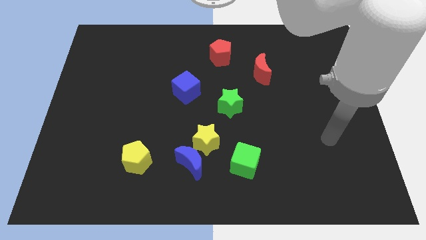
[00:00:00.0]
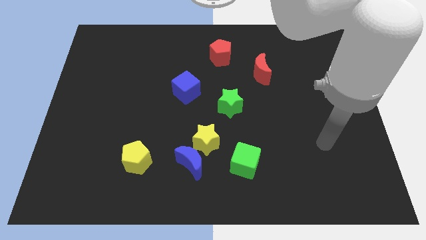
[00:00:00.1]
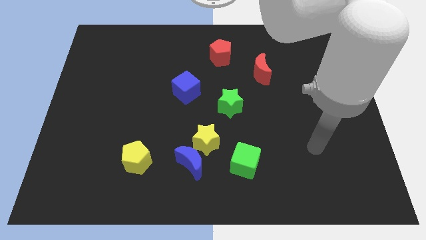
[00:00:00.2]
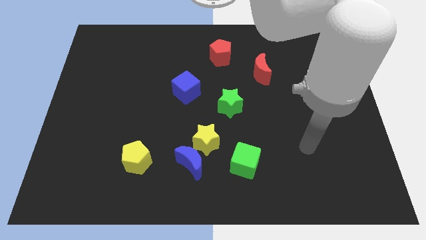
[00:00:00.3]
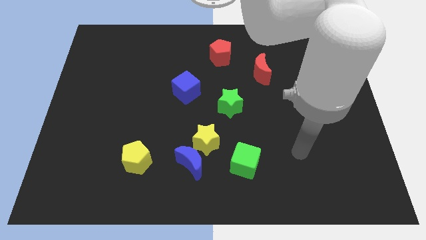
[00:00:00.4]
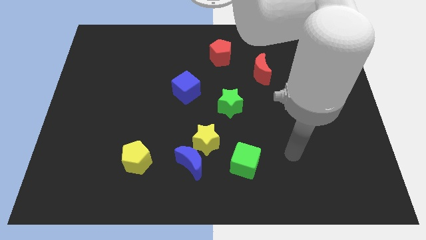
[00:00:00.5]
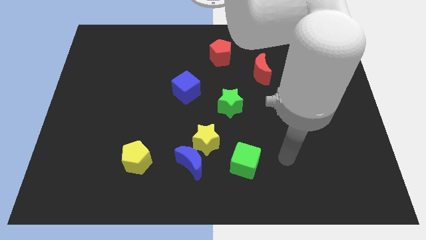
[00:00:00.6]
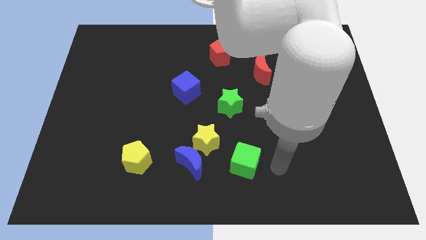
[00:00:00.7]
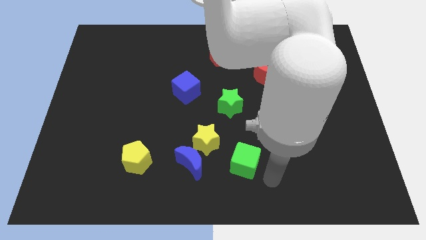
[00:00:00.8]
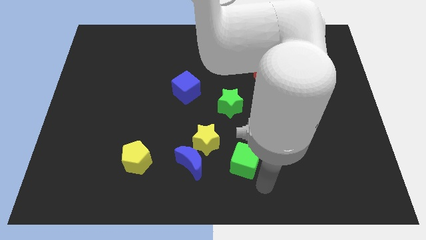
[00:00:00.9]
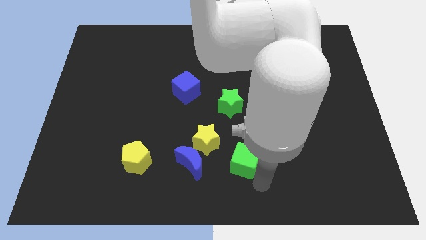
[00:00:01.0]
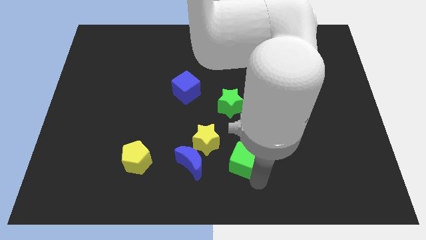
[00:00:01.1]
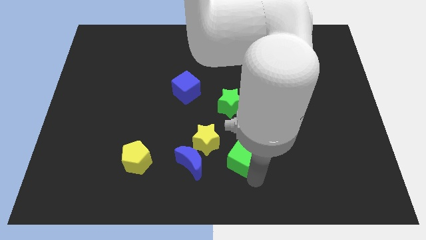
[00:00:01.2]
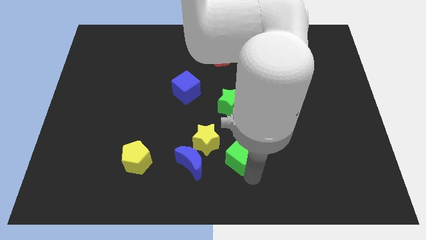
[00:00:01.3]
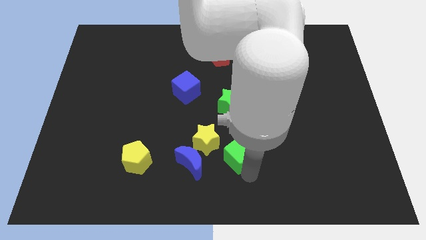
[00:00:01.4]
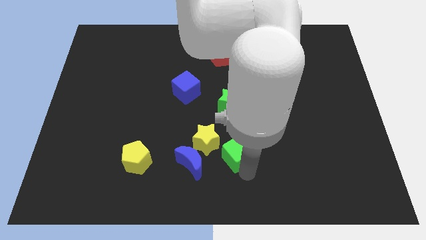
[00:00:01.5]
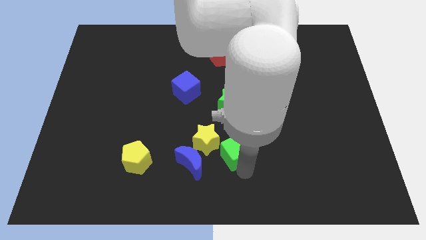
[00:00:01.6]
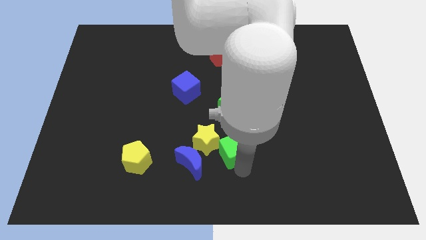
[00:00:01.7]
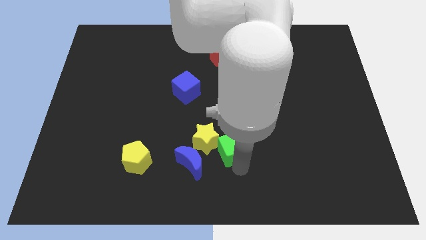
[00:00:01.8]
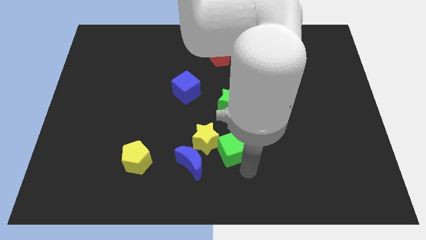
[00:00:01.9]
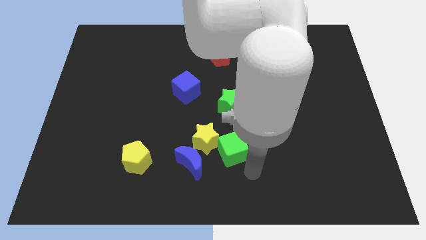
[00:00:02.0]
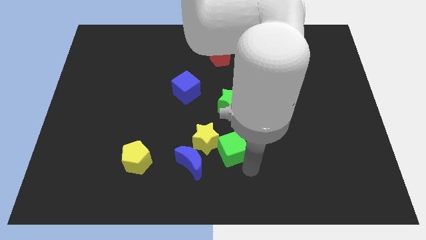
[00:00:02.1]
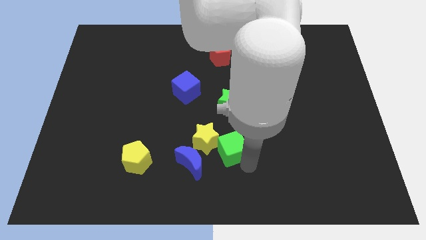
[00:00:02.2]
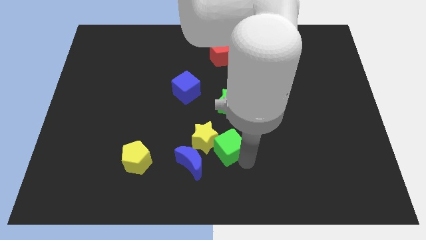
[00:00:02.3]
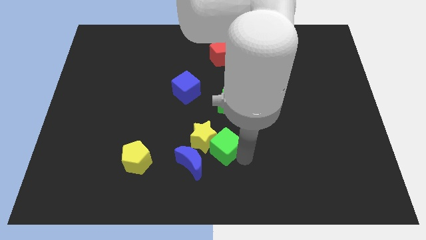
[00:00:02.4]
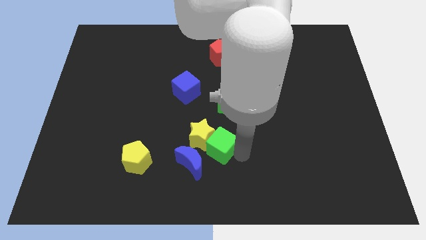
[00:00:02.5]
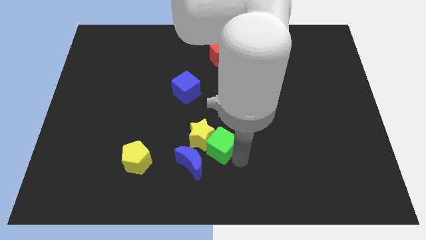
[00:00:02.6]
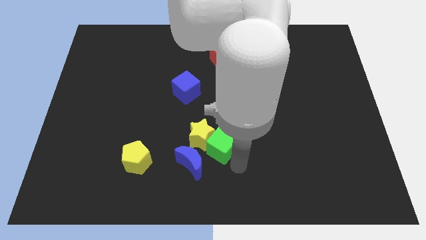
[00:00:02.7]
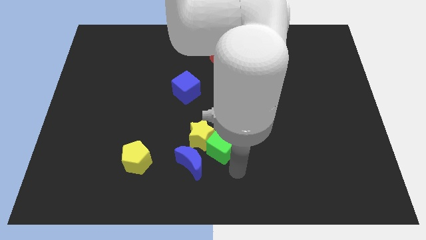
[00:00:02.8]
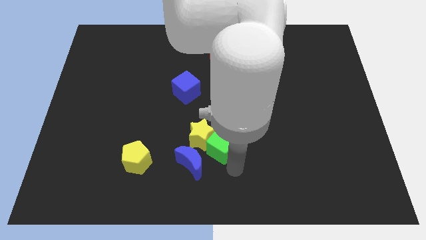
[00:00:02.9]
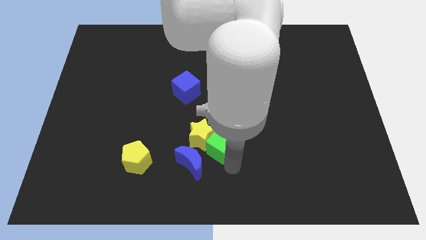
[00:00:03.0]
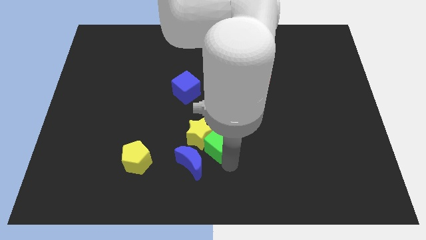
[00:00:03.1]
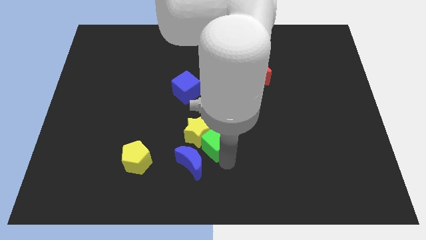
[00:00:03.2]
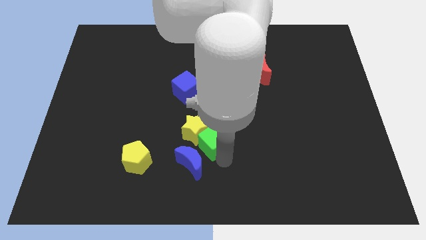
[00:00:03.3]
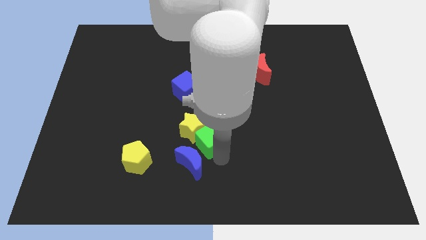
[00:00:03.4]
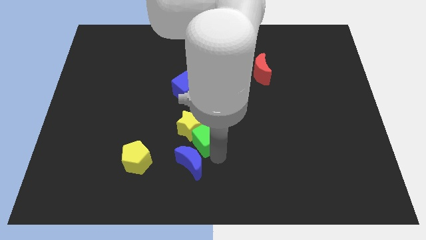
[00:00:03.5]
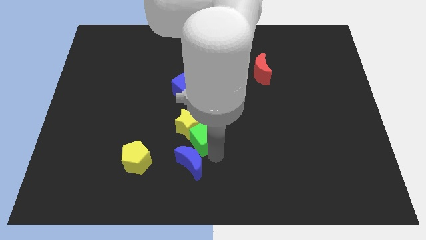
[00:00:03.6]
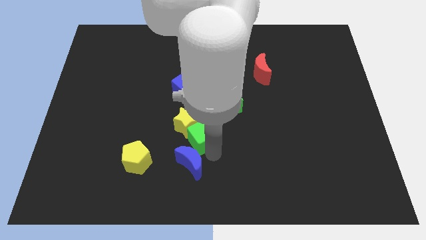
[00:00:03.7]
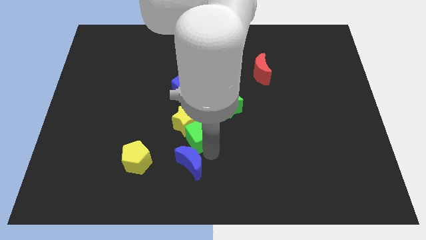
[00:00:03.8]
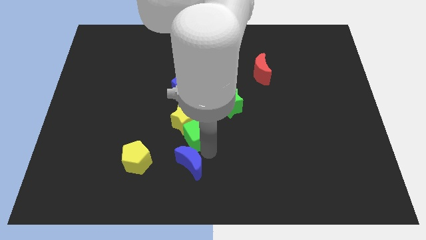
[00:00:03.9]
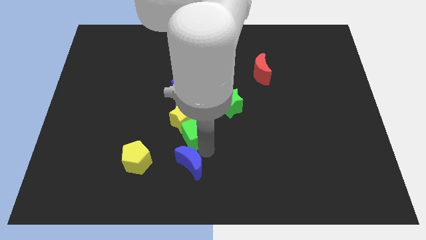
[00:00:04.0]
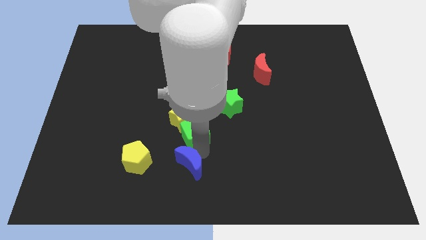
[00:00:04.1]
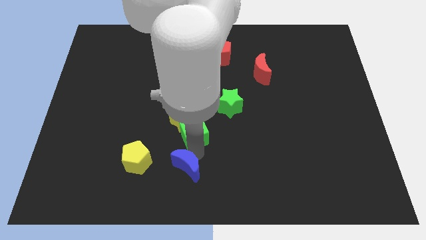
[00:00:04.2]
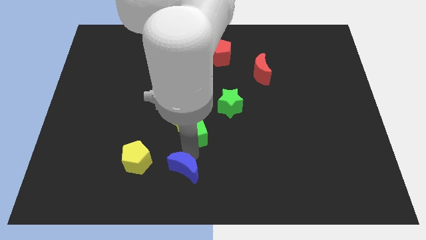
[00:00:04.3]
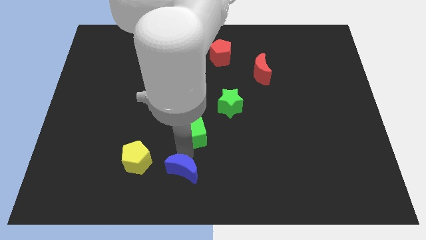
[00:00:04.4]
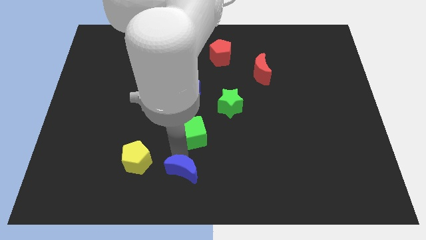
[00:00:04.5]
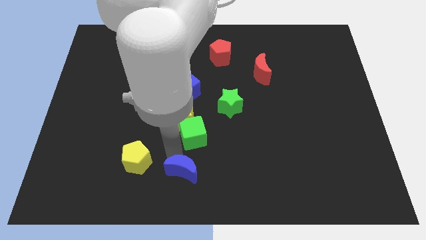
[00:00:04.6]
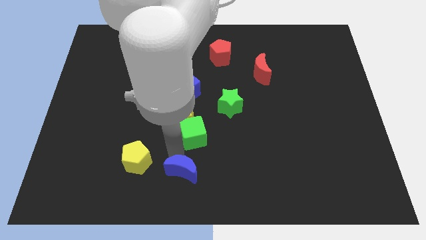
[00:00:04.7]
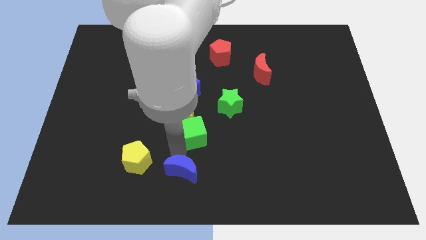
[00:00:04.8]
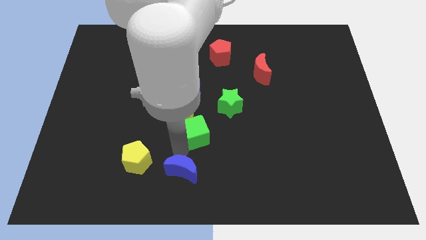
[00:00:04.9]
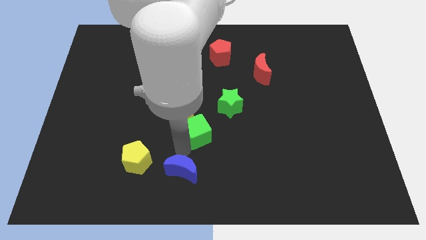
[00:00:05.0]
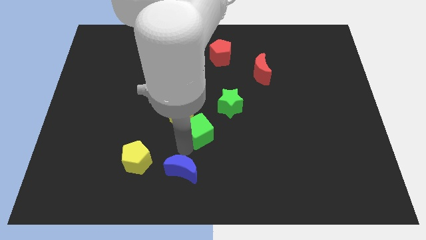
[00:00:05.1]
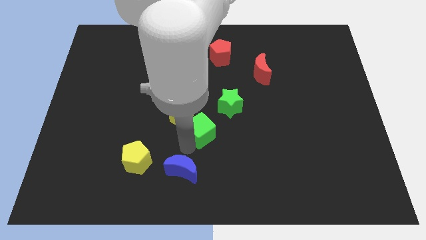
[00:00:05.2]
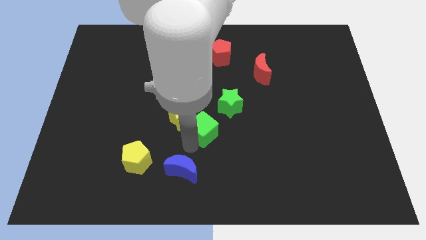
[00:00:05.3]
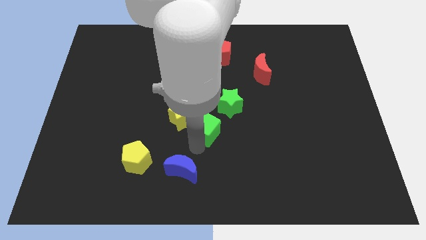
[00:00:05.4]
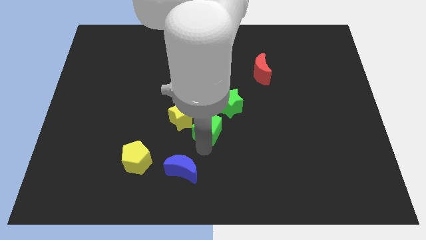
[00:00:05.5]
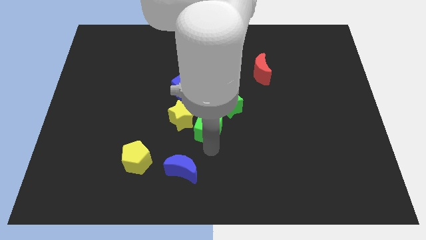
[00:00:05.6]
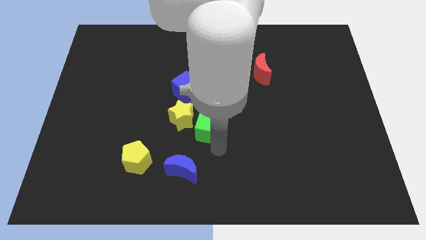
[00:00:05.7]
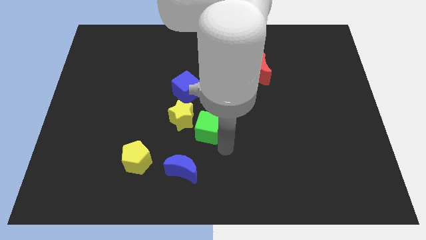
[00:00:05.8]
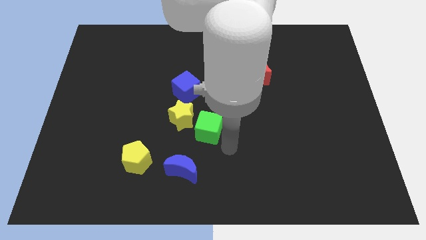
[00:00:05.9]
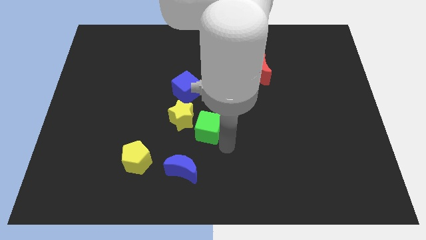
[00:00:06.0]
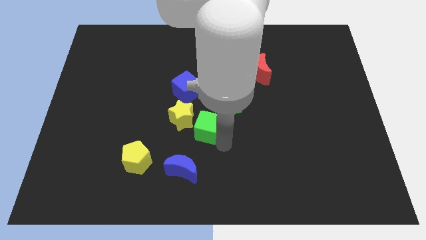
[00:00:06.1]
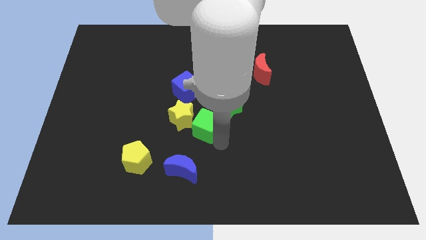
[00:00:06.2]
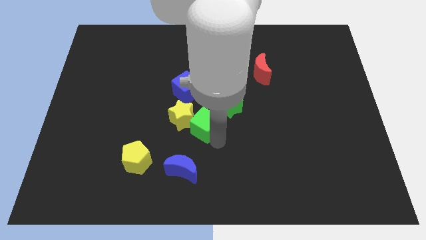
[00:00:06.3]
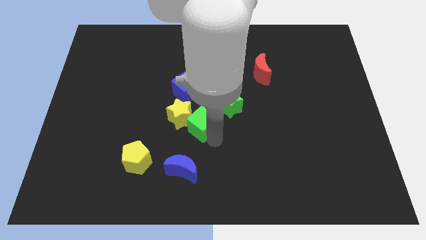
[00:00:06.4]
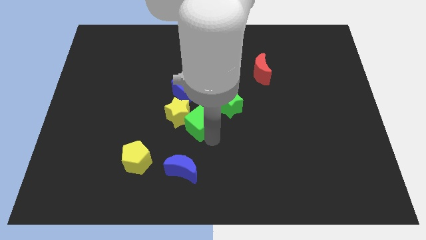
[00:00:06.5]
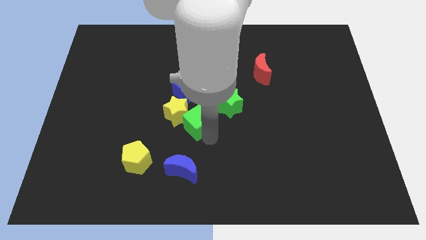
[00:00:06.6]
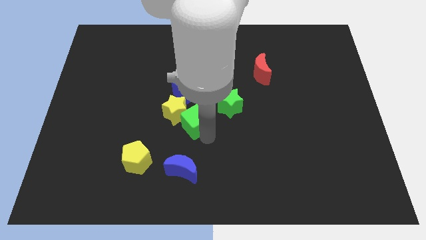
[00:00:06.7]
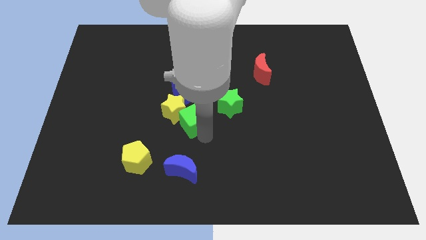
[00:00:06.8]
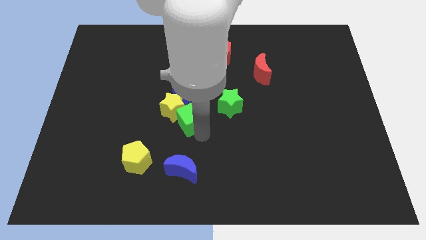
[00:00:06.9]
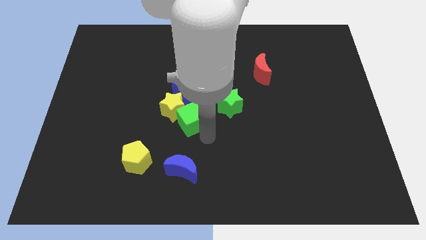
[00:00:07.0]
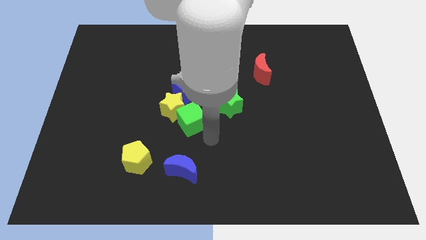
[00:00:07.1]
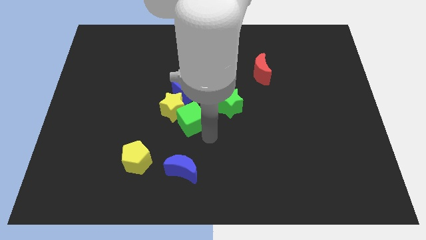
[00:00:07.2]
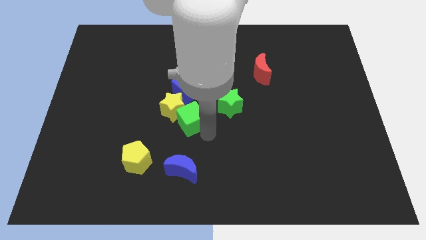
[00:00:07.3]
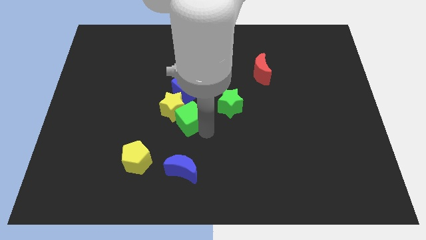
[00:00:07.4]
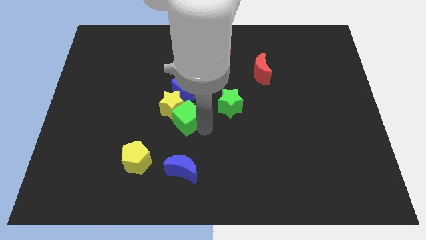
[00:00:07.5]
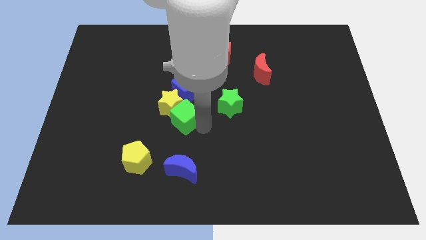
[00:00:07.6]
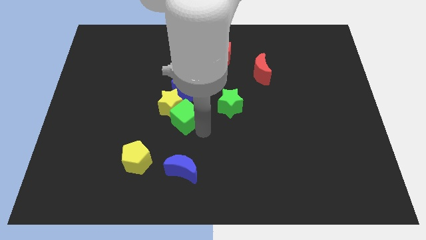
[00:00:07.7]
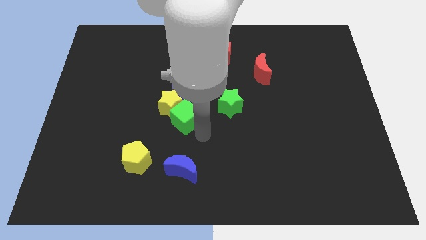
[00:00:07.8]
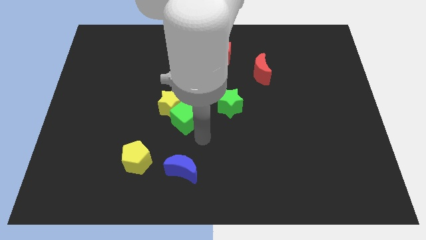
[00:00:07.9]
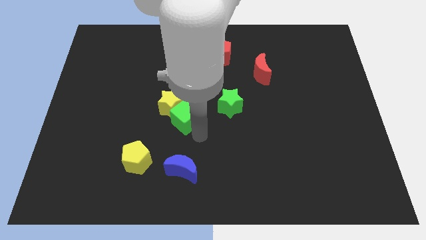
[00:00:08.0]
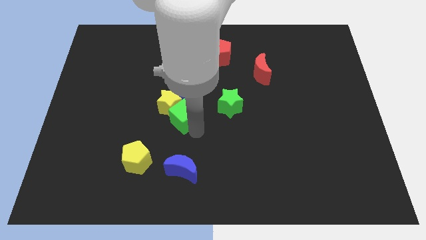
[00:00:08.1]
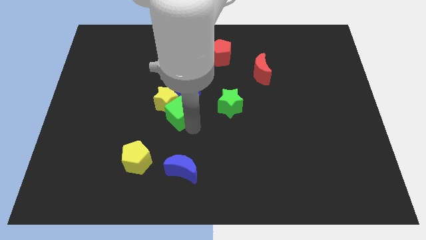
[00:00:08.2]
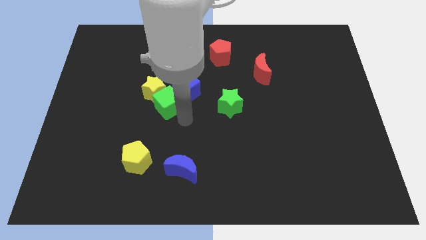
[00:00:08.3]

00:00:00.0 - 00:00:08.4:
move the green cube diagonally up and to the left
